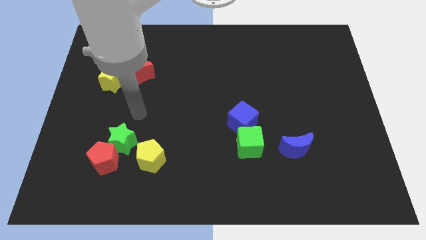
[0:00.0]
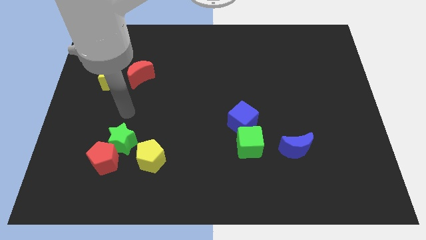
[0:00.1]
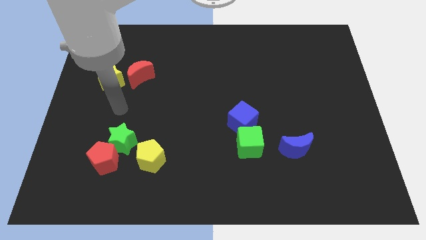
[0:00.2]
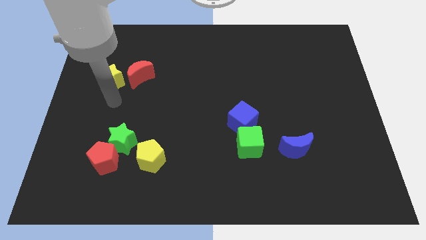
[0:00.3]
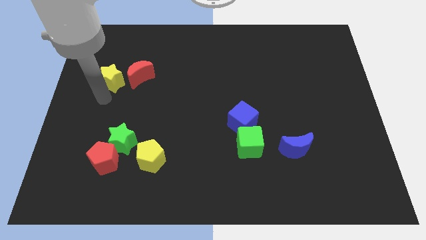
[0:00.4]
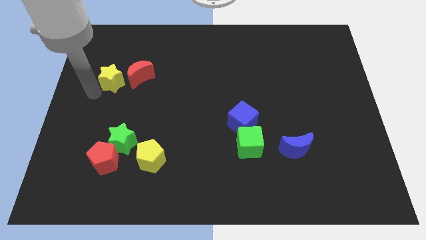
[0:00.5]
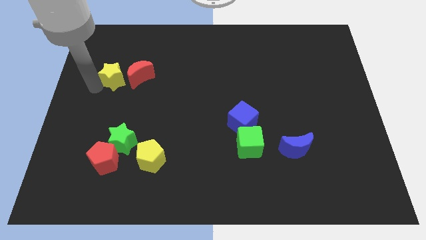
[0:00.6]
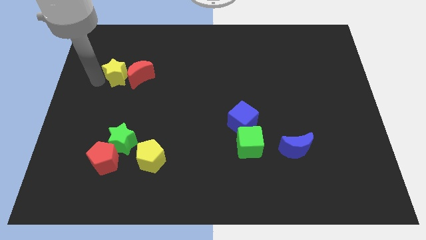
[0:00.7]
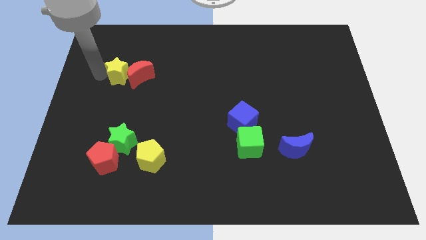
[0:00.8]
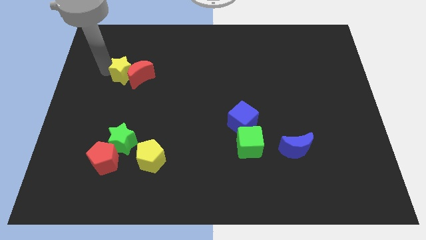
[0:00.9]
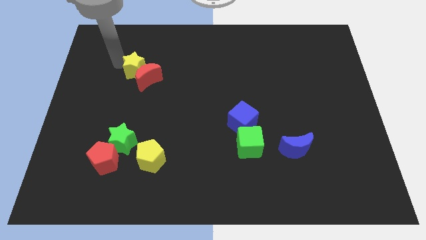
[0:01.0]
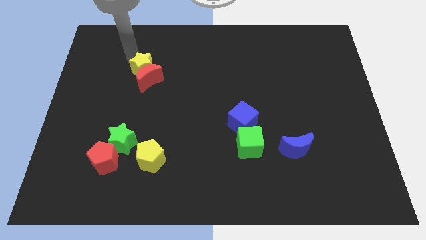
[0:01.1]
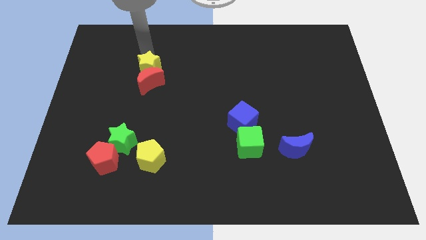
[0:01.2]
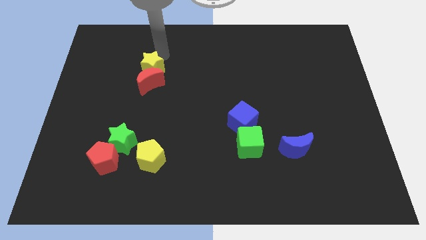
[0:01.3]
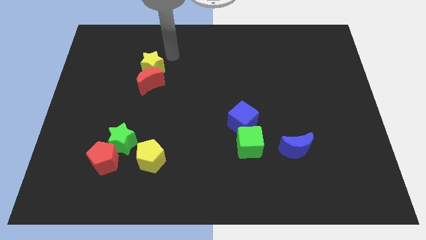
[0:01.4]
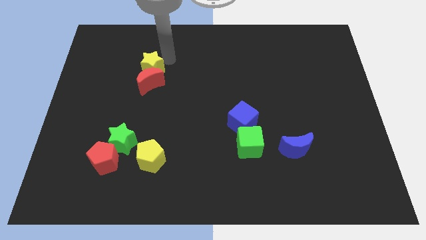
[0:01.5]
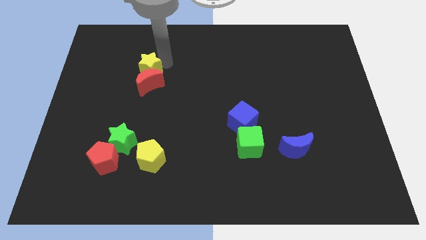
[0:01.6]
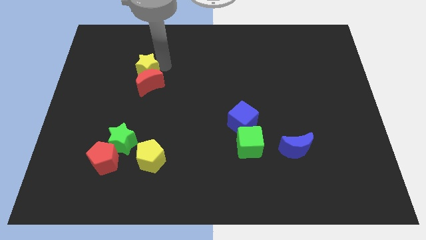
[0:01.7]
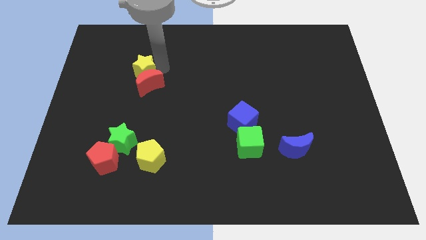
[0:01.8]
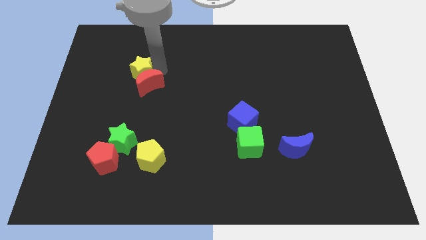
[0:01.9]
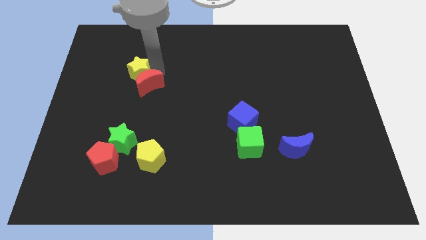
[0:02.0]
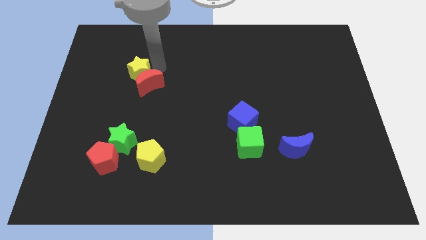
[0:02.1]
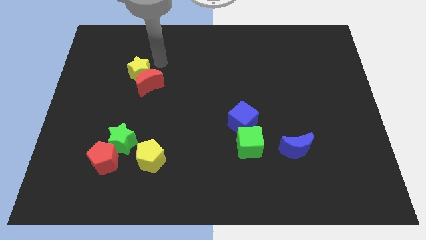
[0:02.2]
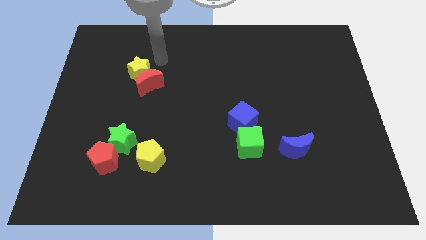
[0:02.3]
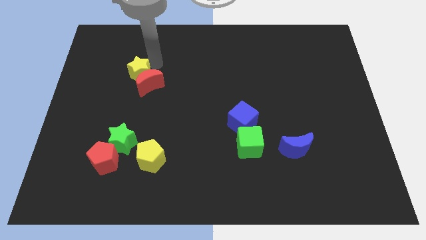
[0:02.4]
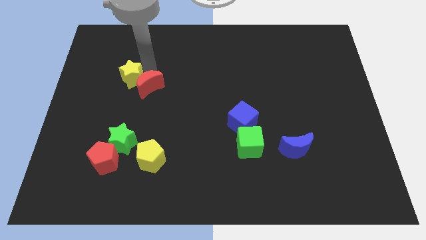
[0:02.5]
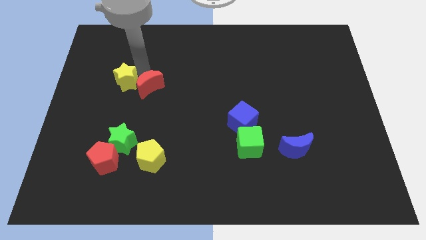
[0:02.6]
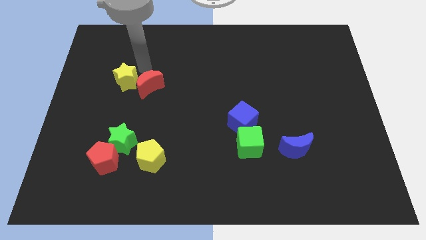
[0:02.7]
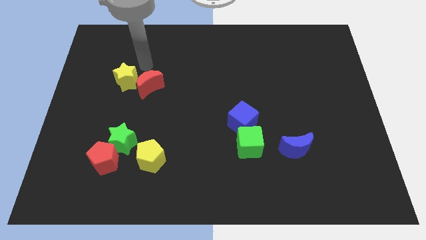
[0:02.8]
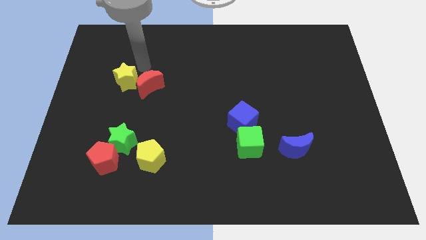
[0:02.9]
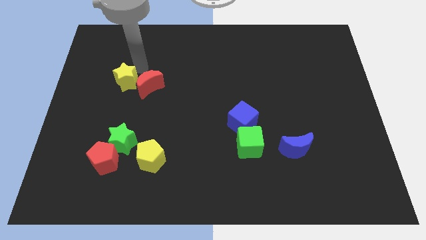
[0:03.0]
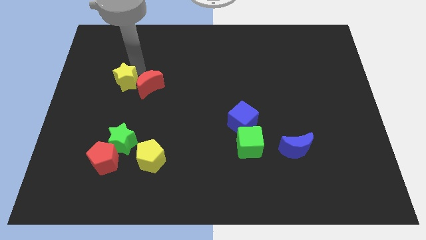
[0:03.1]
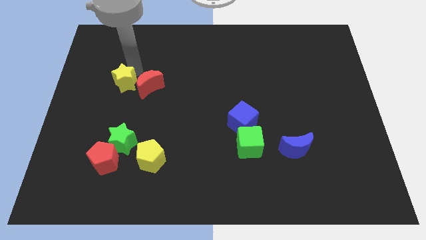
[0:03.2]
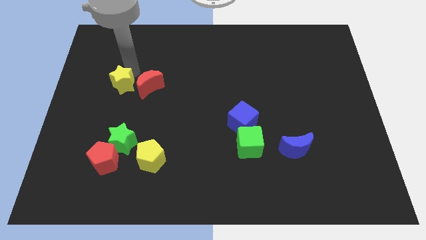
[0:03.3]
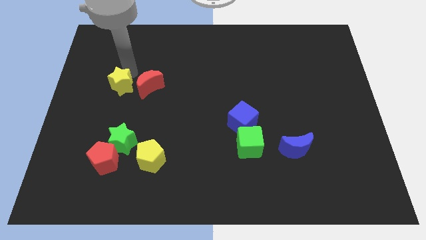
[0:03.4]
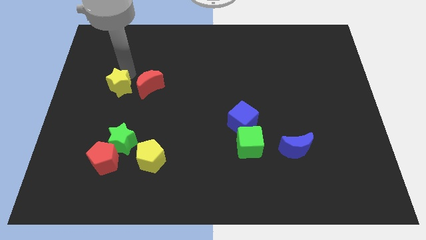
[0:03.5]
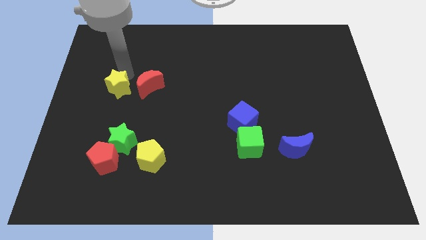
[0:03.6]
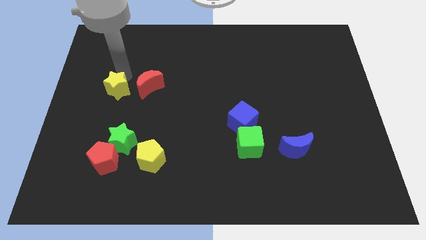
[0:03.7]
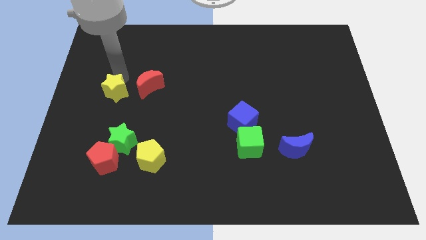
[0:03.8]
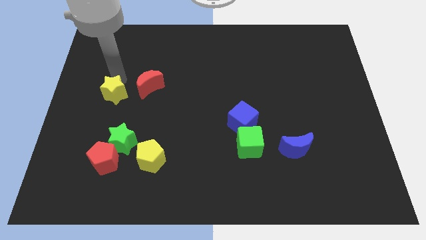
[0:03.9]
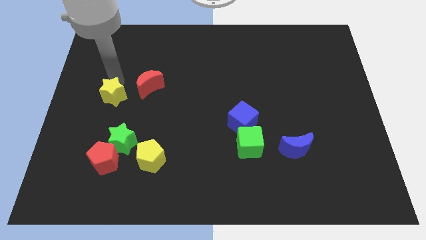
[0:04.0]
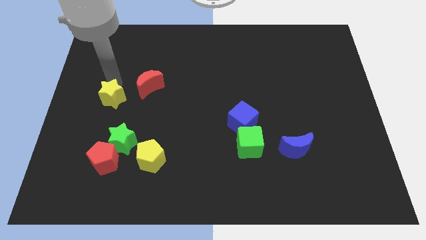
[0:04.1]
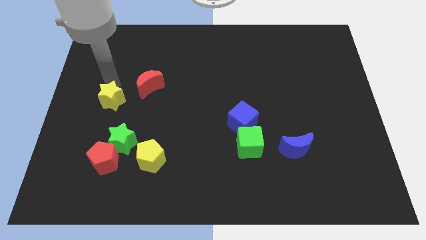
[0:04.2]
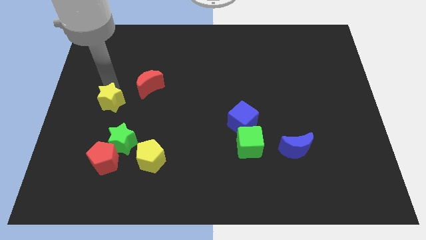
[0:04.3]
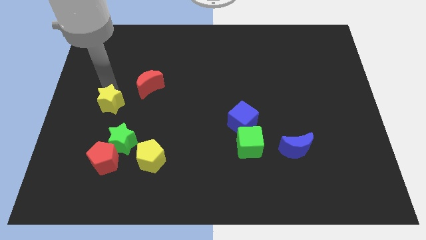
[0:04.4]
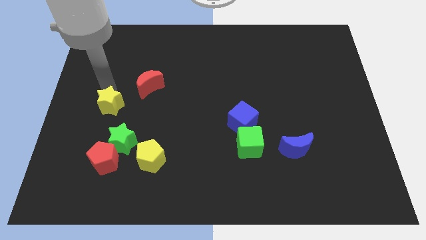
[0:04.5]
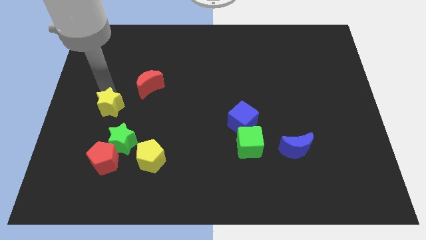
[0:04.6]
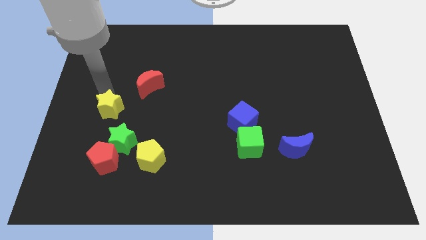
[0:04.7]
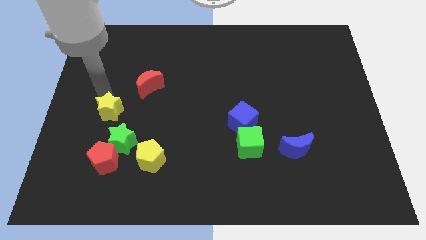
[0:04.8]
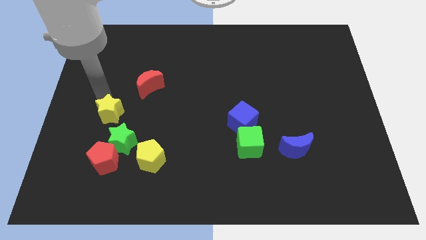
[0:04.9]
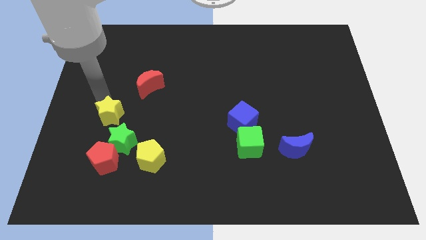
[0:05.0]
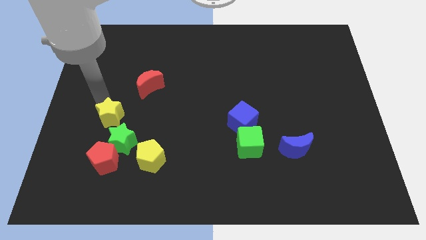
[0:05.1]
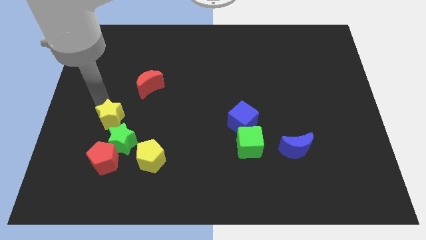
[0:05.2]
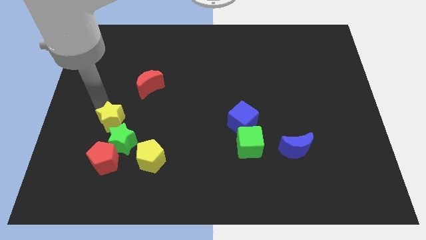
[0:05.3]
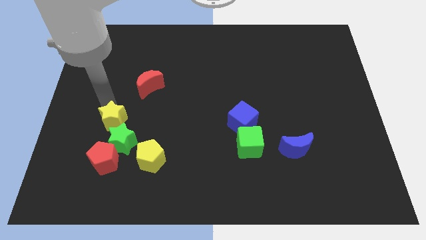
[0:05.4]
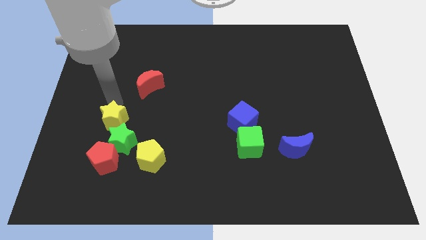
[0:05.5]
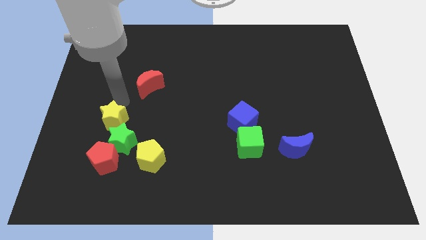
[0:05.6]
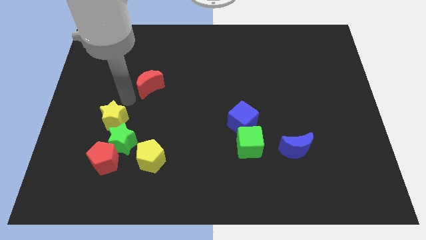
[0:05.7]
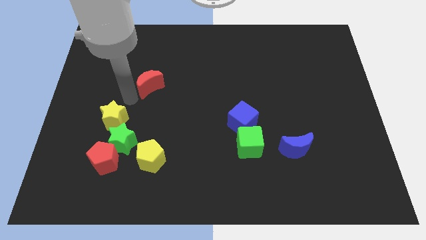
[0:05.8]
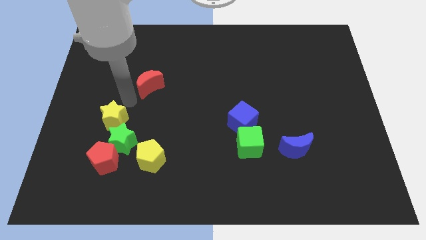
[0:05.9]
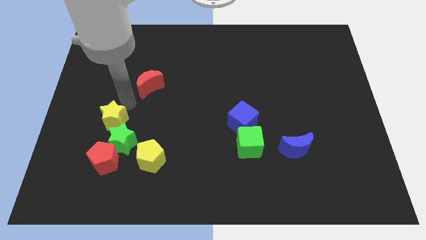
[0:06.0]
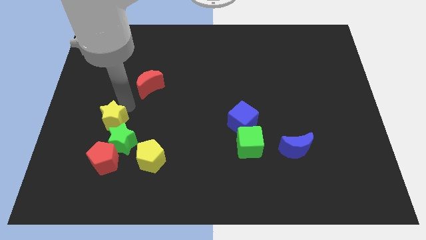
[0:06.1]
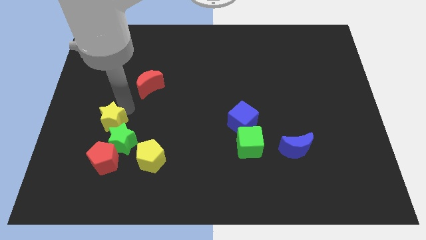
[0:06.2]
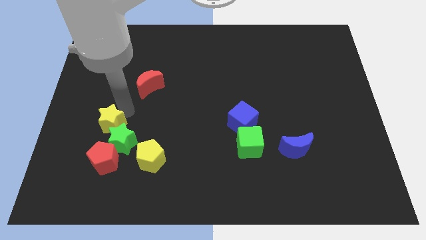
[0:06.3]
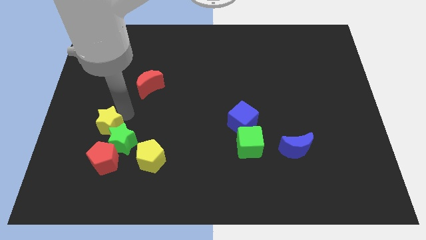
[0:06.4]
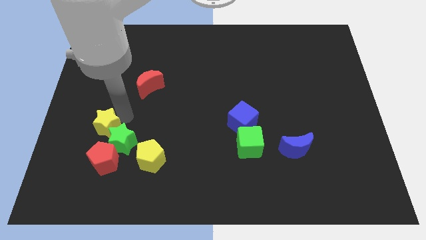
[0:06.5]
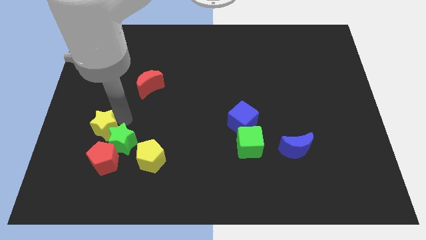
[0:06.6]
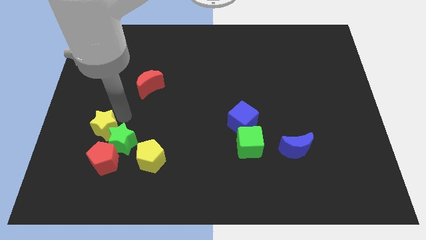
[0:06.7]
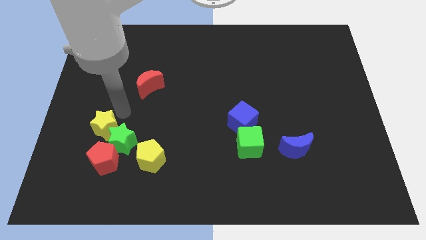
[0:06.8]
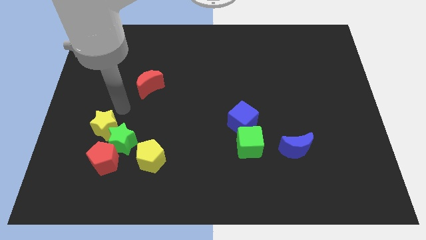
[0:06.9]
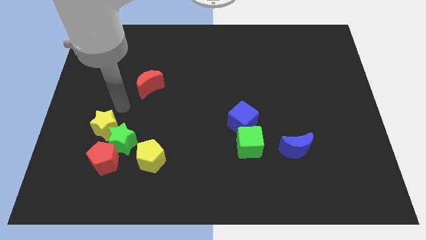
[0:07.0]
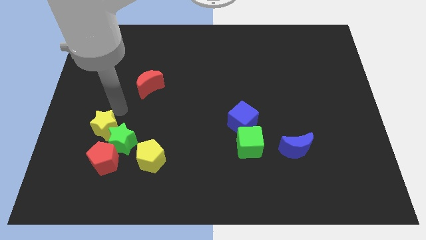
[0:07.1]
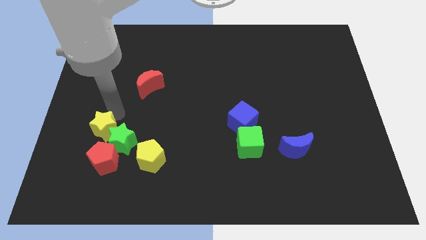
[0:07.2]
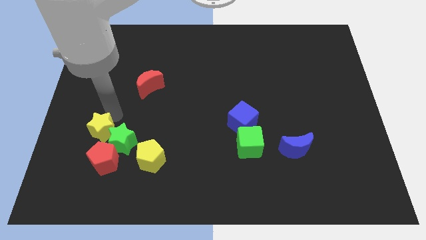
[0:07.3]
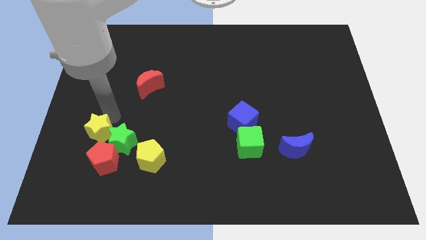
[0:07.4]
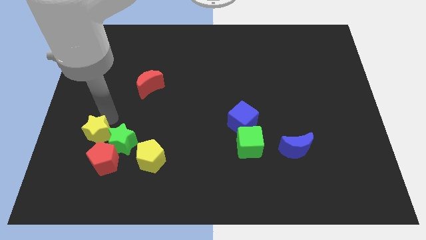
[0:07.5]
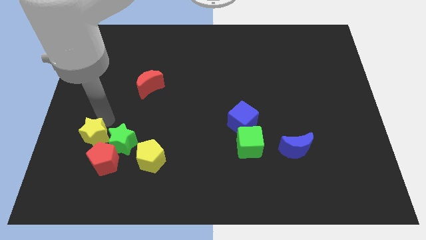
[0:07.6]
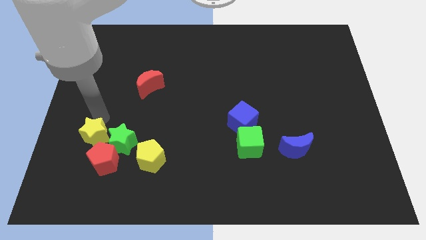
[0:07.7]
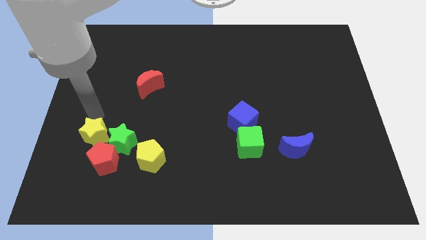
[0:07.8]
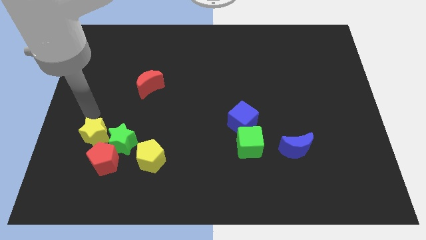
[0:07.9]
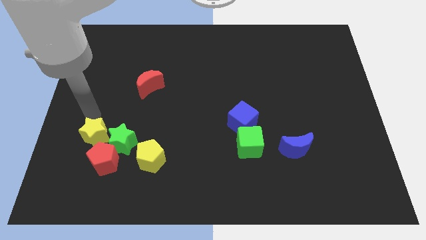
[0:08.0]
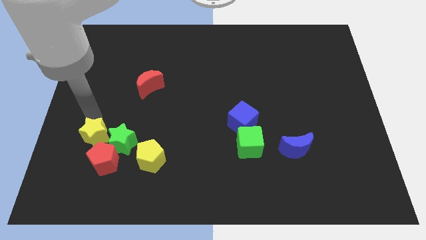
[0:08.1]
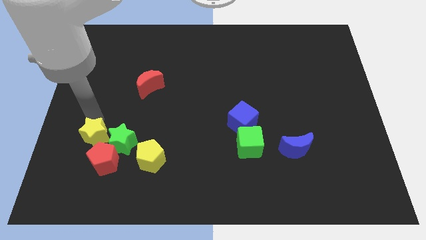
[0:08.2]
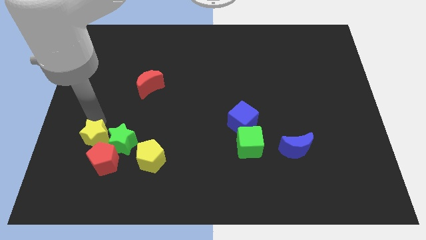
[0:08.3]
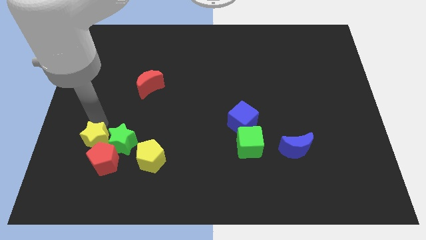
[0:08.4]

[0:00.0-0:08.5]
push the yellow star close to the red pentagon

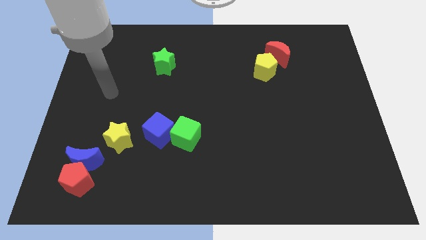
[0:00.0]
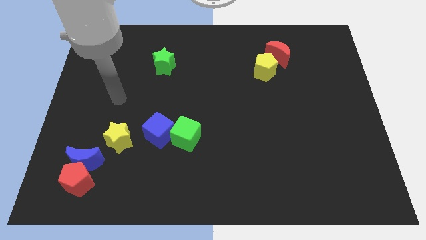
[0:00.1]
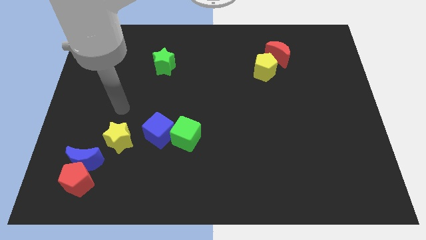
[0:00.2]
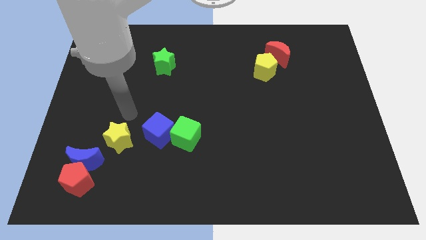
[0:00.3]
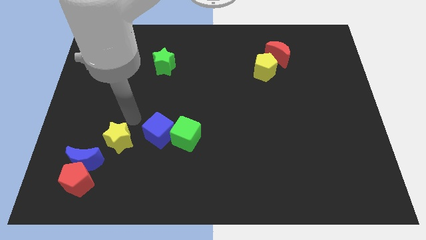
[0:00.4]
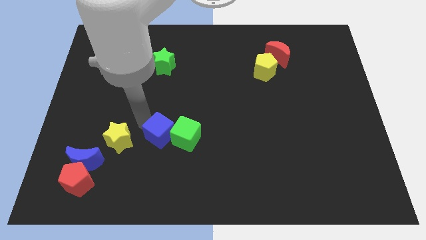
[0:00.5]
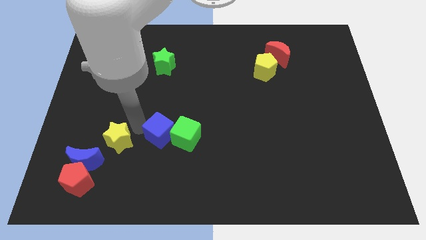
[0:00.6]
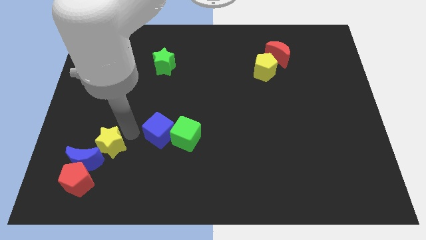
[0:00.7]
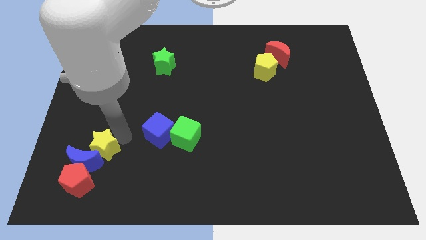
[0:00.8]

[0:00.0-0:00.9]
move the yellow star close to the blue moon
